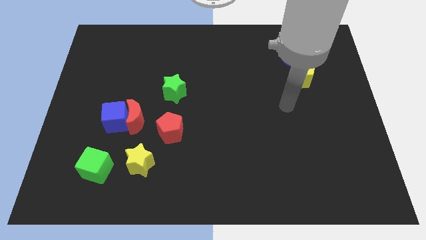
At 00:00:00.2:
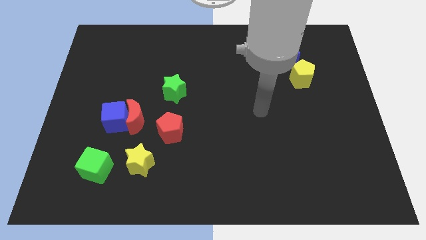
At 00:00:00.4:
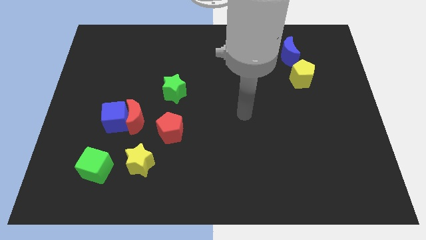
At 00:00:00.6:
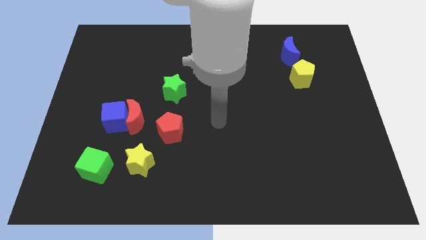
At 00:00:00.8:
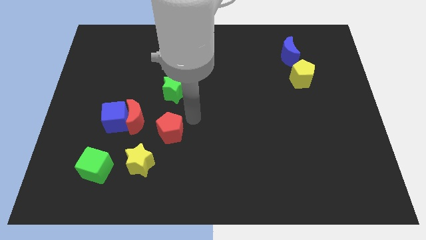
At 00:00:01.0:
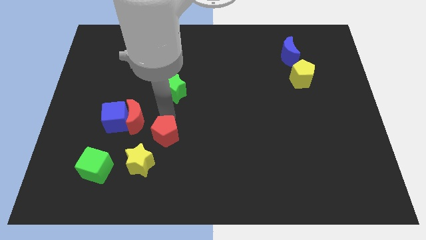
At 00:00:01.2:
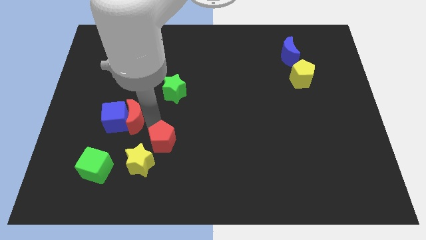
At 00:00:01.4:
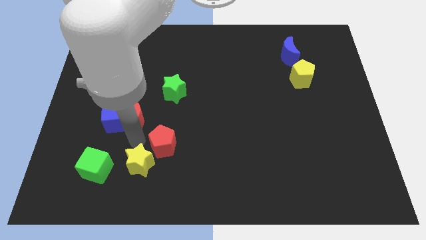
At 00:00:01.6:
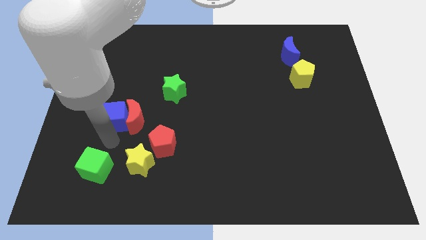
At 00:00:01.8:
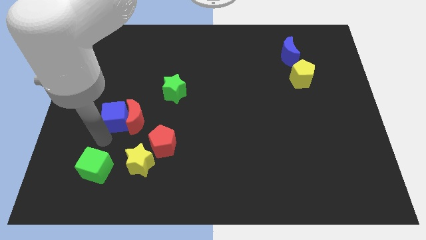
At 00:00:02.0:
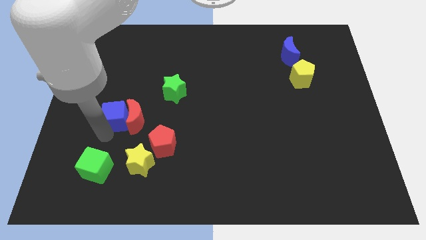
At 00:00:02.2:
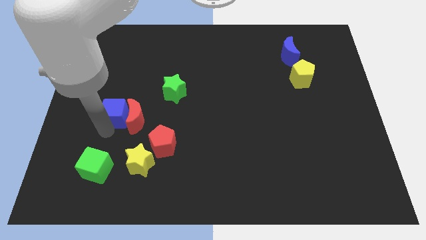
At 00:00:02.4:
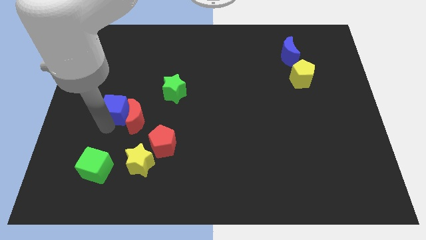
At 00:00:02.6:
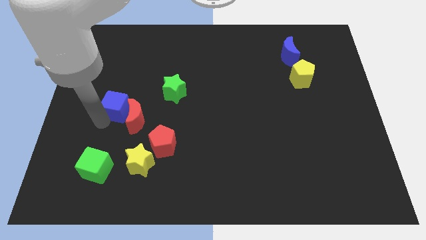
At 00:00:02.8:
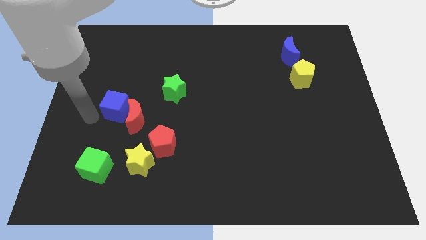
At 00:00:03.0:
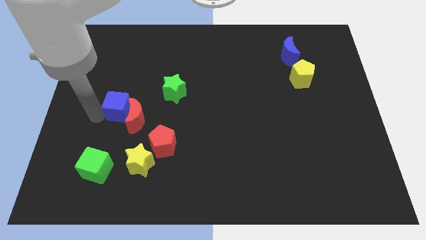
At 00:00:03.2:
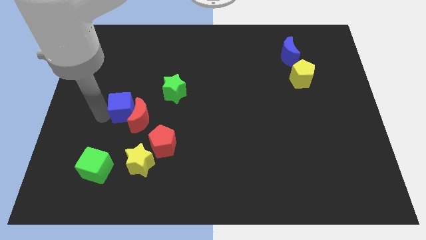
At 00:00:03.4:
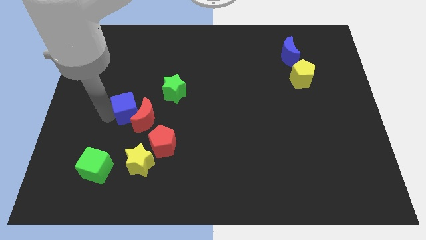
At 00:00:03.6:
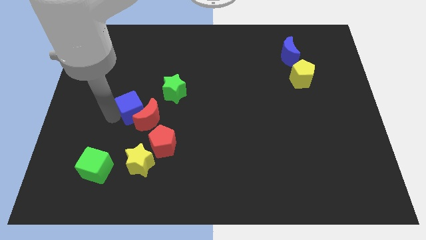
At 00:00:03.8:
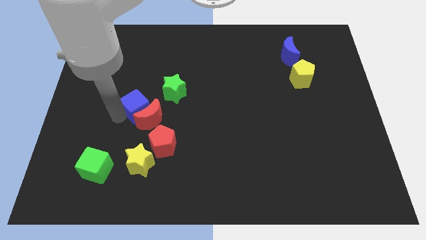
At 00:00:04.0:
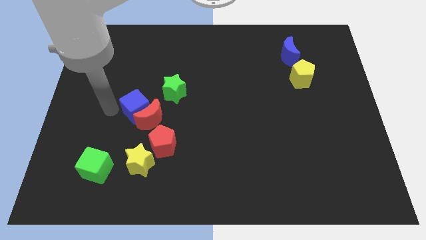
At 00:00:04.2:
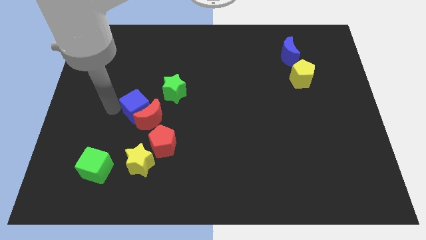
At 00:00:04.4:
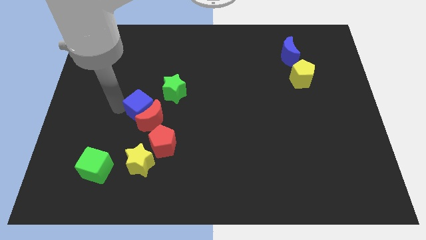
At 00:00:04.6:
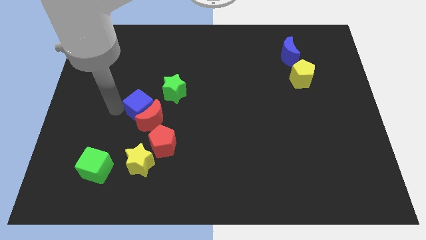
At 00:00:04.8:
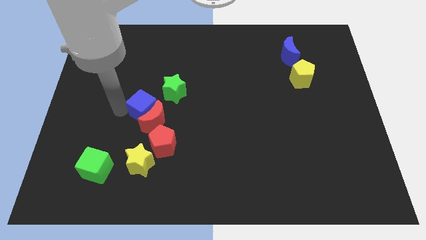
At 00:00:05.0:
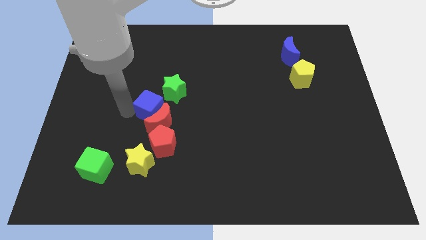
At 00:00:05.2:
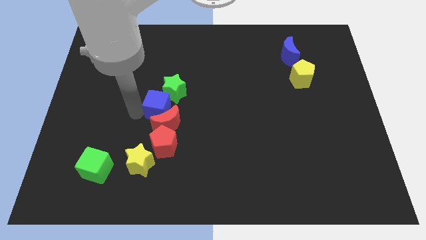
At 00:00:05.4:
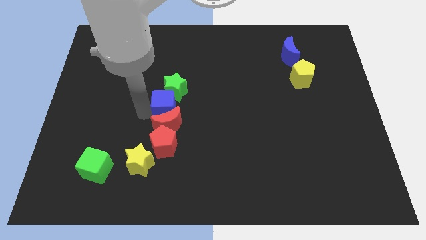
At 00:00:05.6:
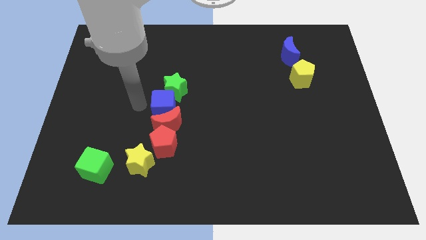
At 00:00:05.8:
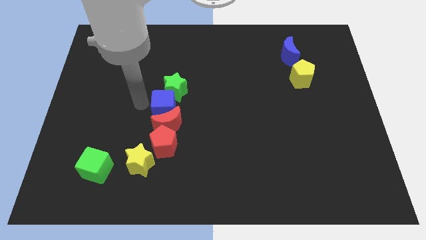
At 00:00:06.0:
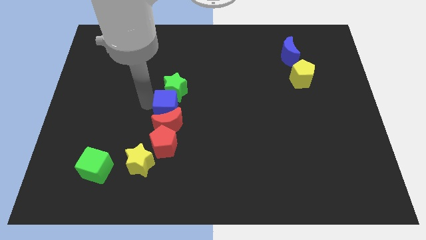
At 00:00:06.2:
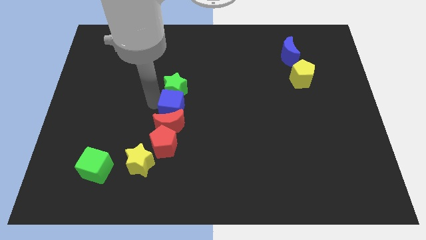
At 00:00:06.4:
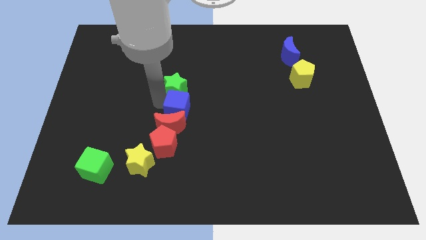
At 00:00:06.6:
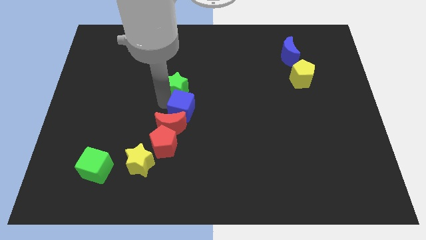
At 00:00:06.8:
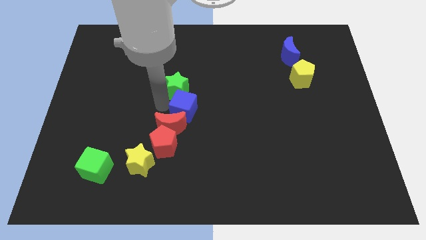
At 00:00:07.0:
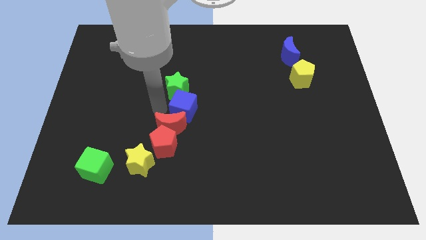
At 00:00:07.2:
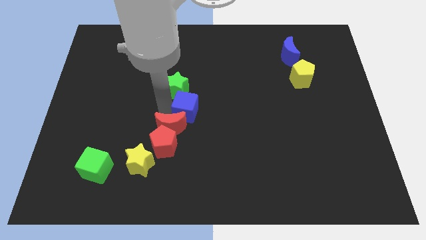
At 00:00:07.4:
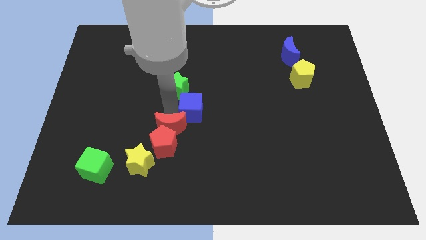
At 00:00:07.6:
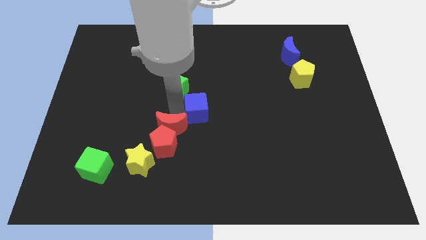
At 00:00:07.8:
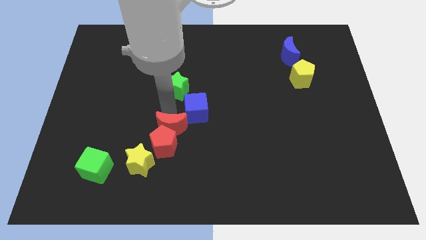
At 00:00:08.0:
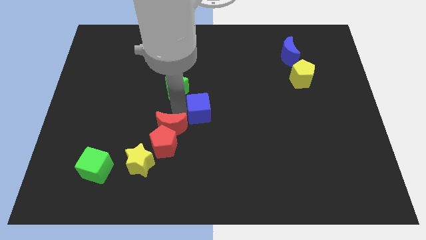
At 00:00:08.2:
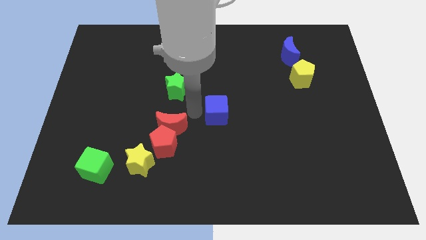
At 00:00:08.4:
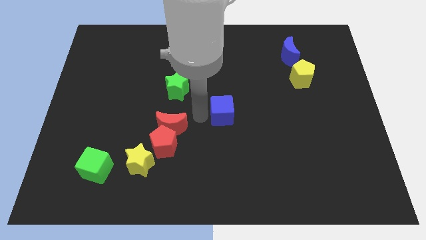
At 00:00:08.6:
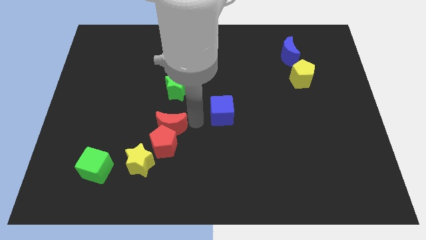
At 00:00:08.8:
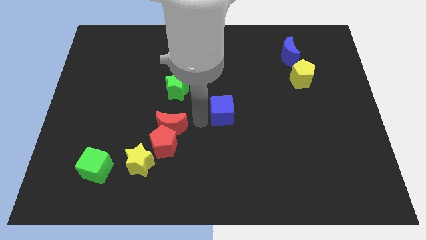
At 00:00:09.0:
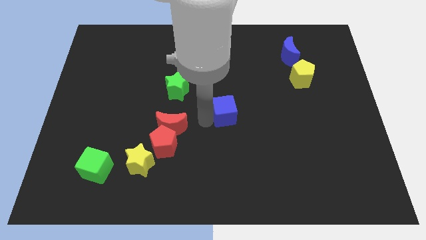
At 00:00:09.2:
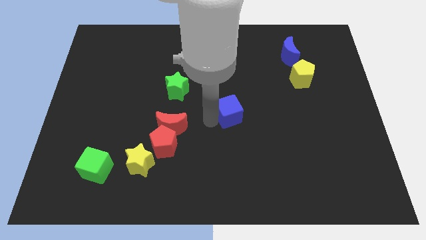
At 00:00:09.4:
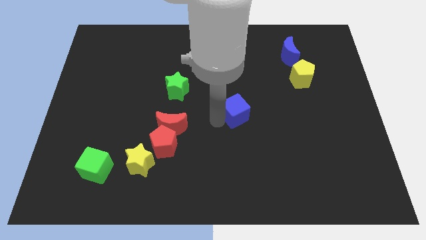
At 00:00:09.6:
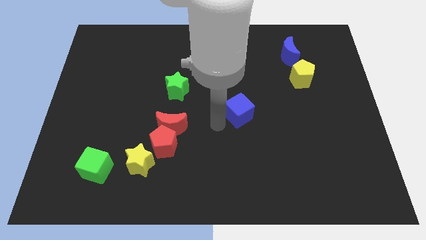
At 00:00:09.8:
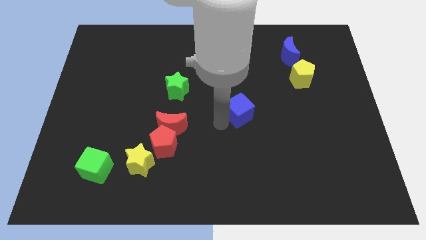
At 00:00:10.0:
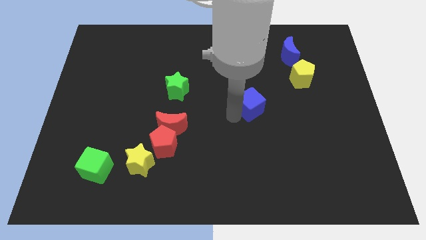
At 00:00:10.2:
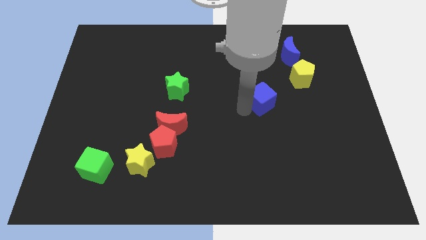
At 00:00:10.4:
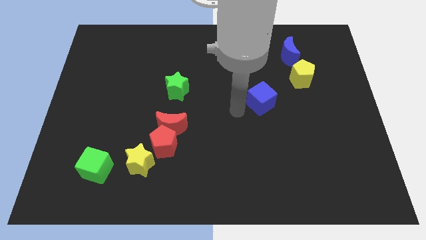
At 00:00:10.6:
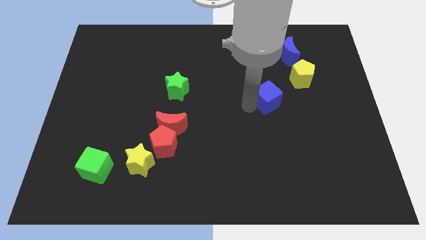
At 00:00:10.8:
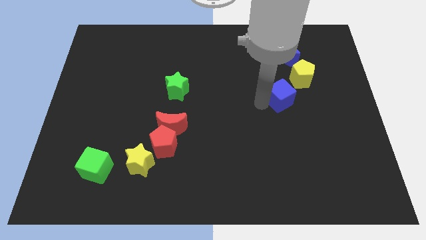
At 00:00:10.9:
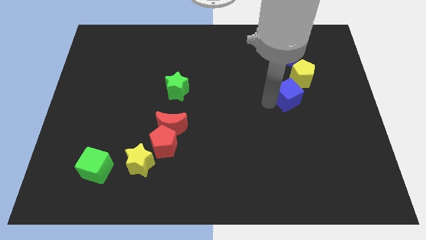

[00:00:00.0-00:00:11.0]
move the blue cube below the blue moon

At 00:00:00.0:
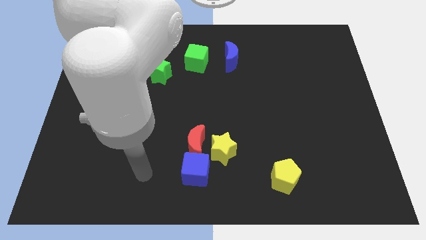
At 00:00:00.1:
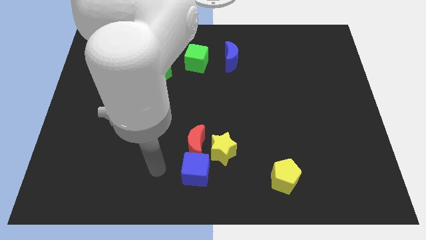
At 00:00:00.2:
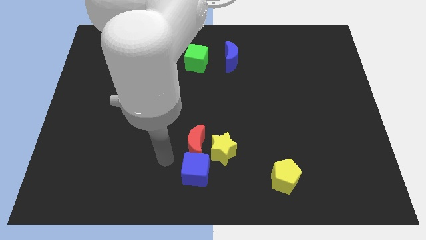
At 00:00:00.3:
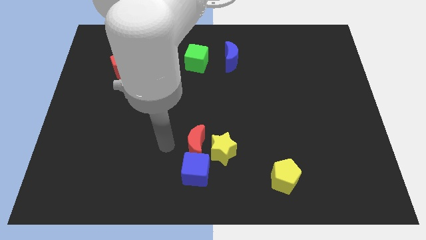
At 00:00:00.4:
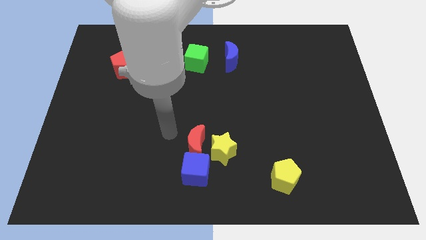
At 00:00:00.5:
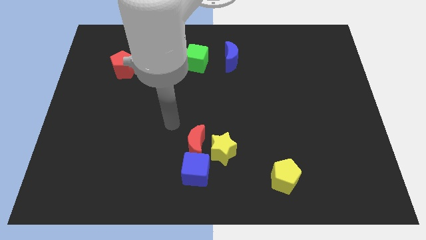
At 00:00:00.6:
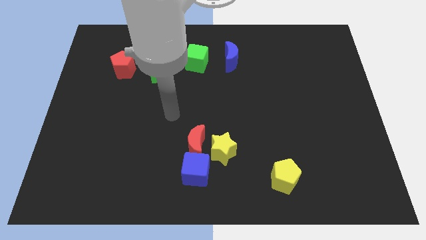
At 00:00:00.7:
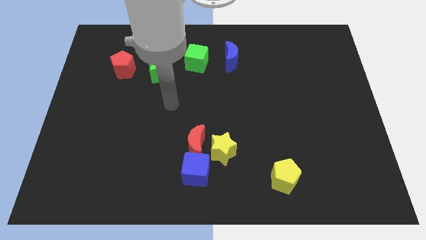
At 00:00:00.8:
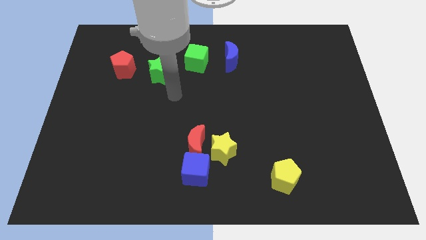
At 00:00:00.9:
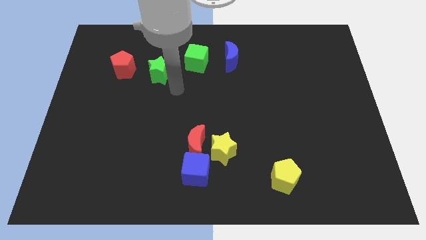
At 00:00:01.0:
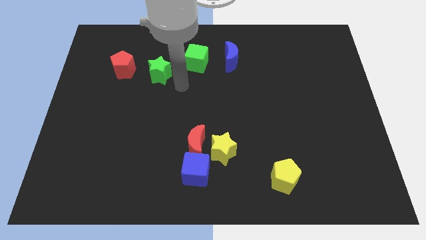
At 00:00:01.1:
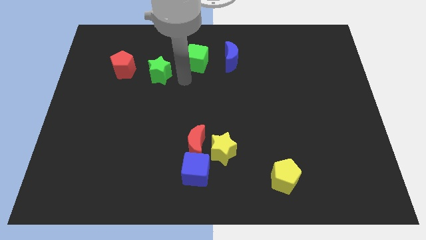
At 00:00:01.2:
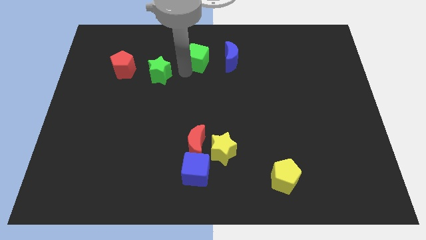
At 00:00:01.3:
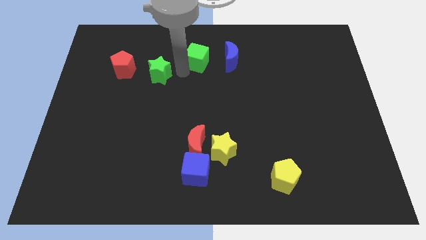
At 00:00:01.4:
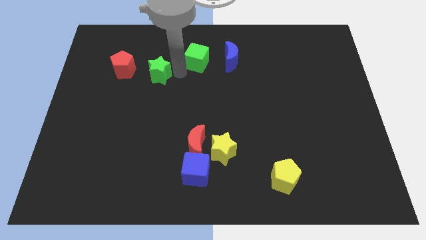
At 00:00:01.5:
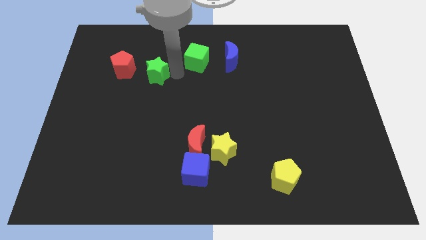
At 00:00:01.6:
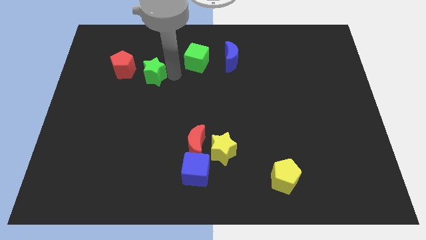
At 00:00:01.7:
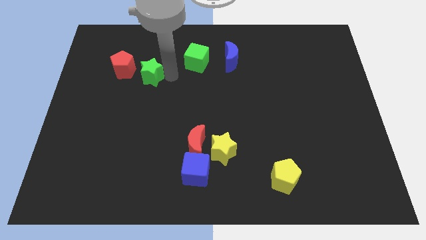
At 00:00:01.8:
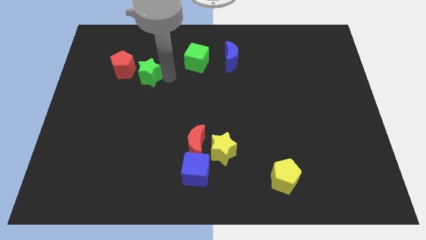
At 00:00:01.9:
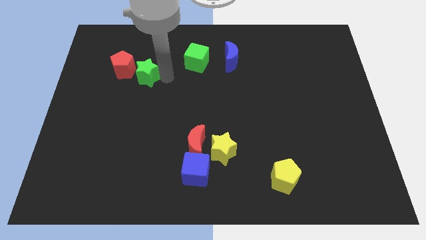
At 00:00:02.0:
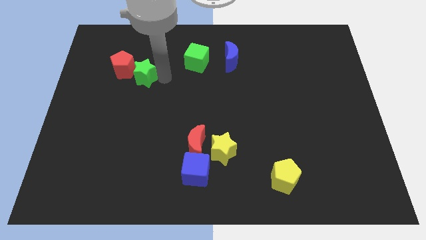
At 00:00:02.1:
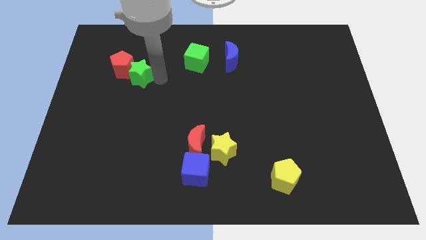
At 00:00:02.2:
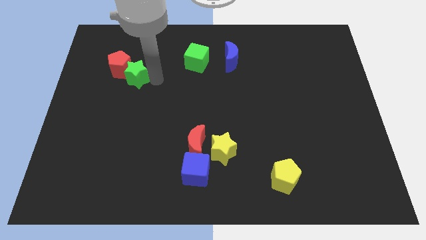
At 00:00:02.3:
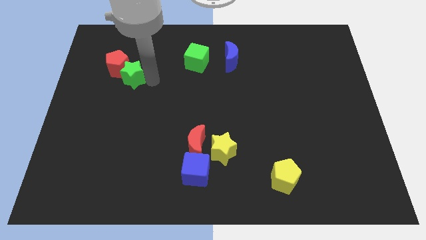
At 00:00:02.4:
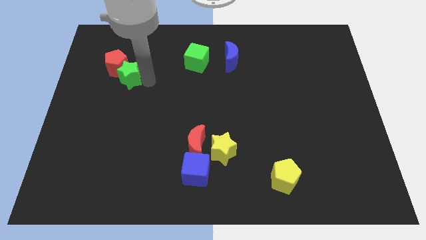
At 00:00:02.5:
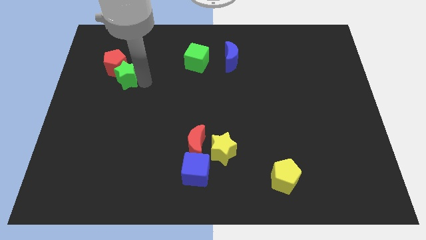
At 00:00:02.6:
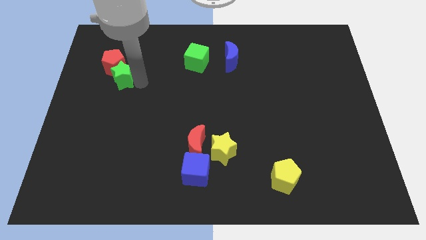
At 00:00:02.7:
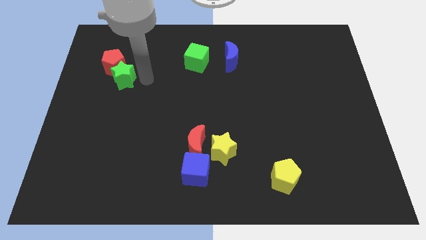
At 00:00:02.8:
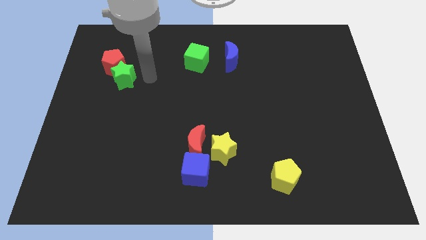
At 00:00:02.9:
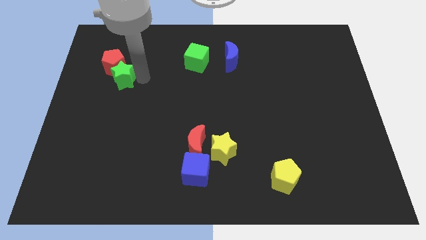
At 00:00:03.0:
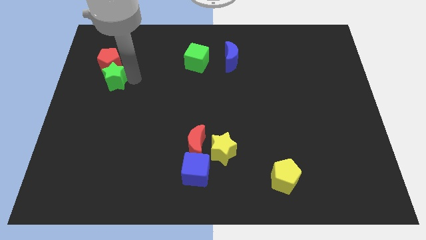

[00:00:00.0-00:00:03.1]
slide the green star to the bottom left of the red pentagon
